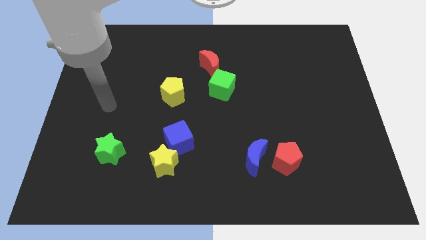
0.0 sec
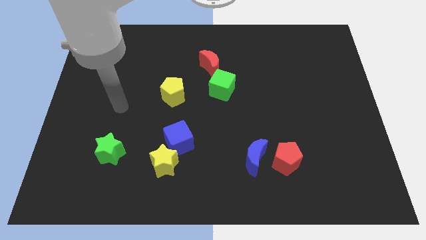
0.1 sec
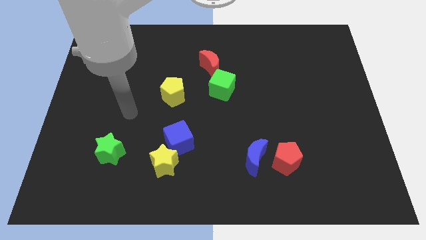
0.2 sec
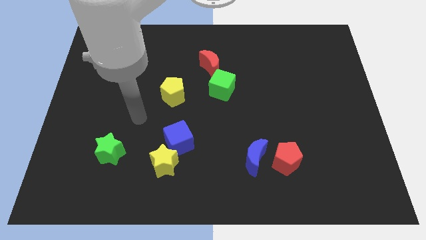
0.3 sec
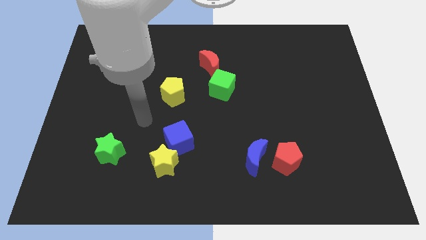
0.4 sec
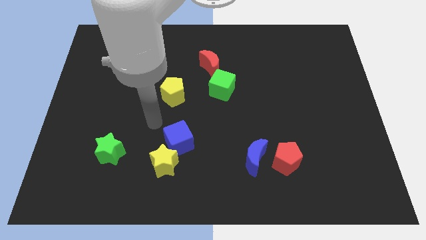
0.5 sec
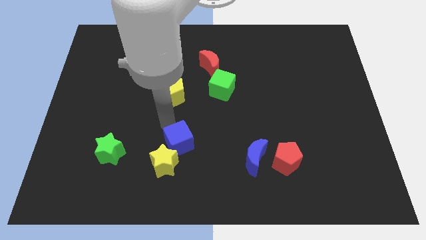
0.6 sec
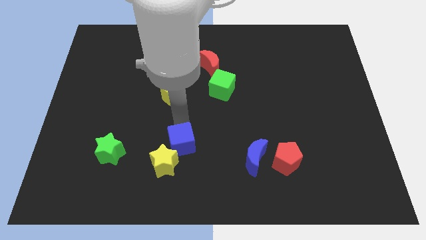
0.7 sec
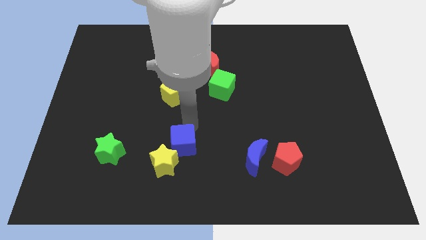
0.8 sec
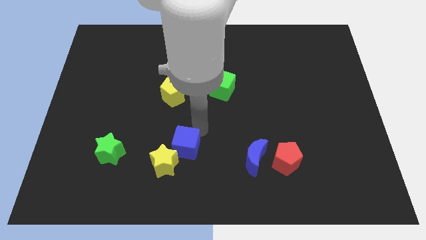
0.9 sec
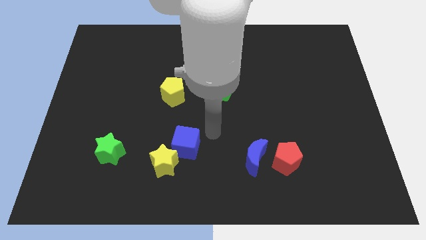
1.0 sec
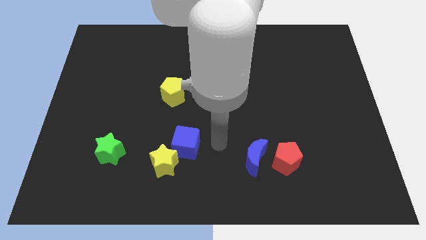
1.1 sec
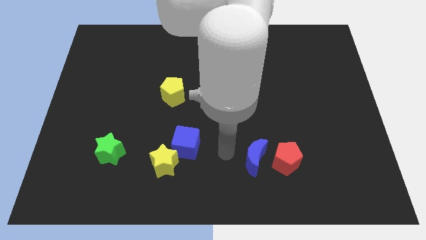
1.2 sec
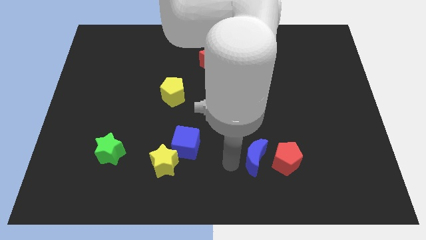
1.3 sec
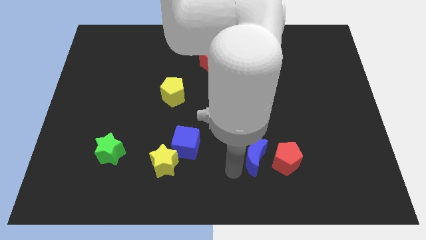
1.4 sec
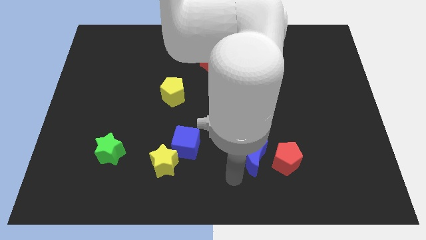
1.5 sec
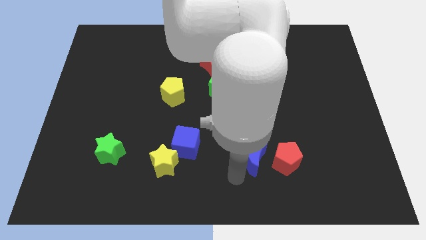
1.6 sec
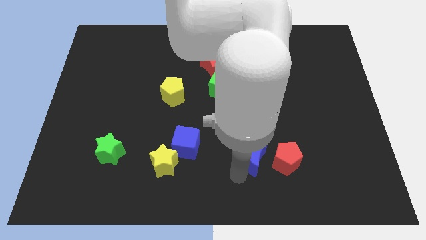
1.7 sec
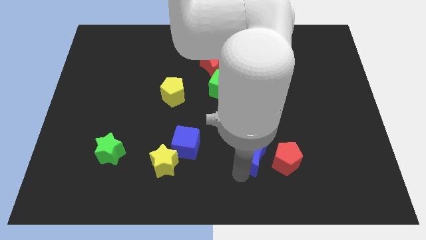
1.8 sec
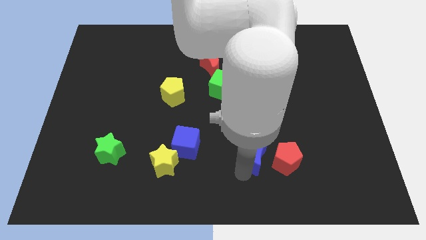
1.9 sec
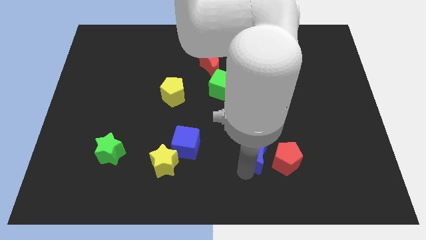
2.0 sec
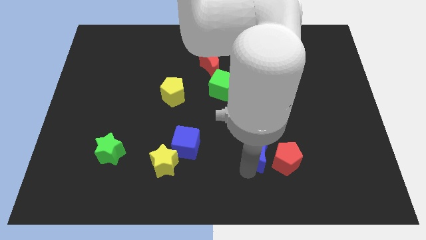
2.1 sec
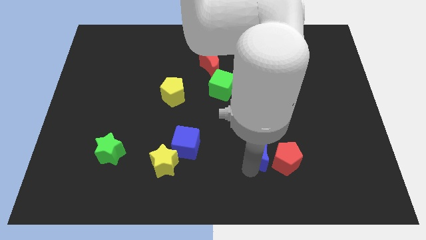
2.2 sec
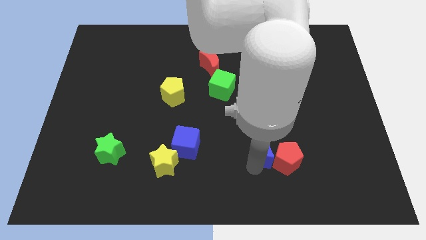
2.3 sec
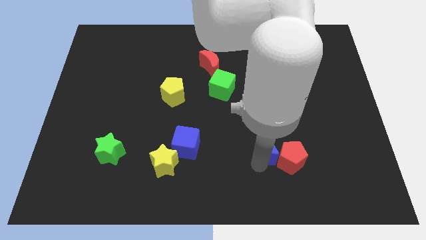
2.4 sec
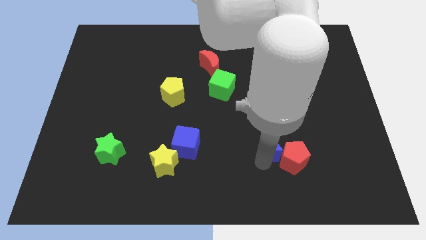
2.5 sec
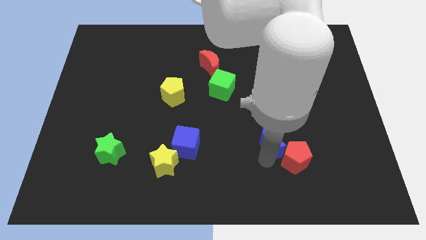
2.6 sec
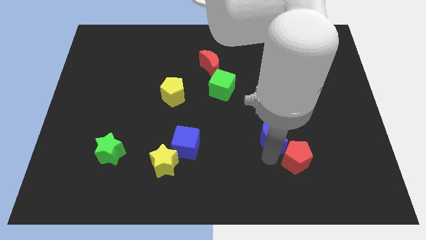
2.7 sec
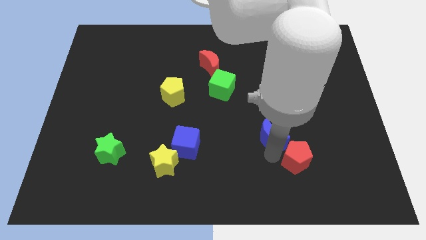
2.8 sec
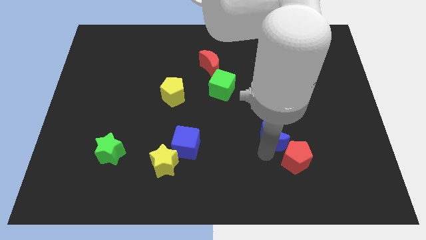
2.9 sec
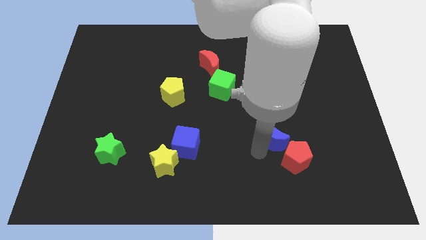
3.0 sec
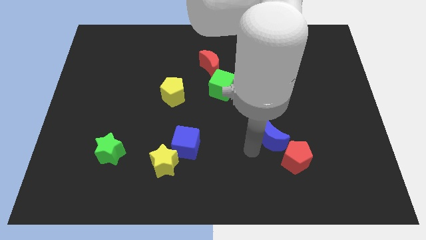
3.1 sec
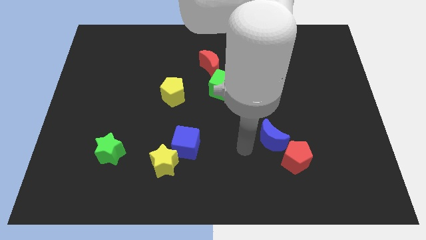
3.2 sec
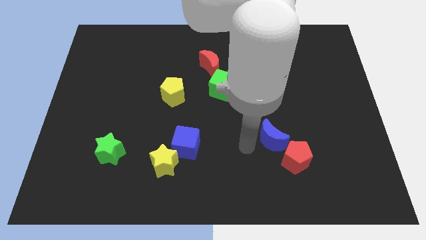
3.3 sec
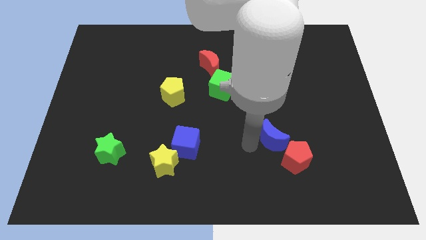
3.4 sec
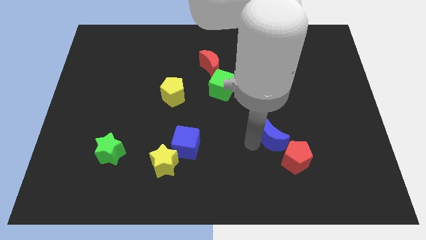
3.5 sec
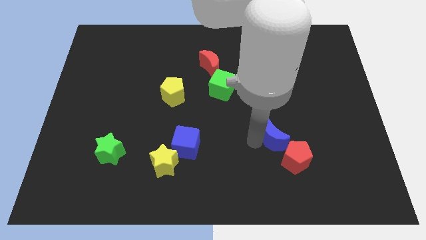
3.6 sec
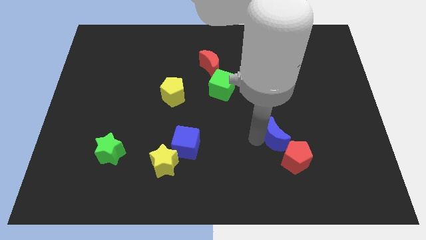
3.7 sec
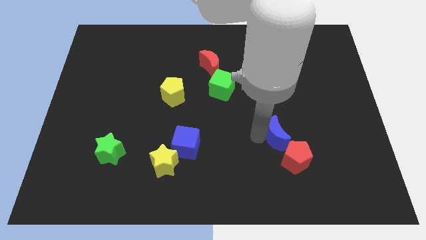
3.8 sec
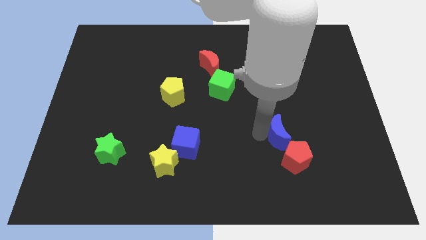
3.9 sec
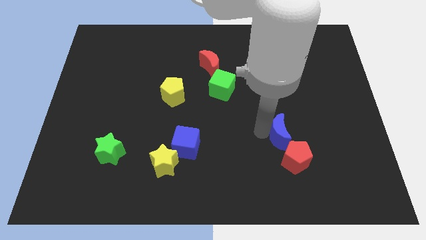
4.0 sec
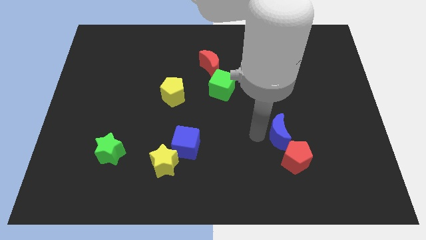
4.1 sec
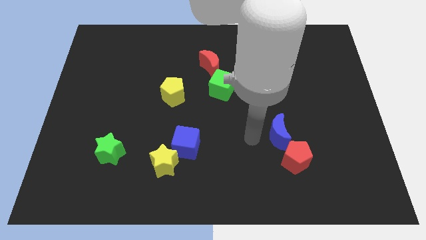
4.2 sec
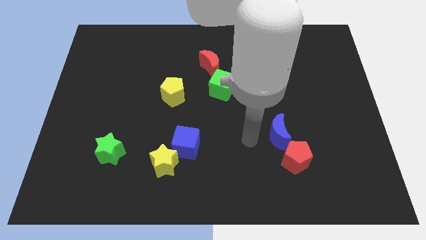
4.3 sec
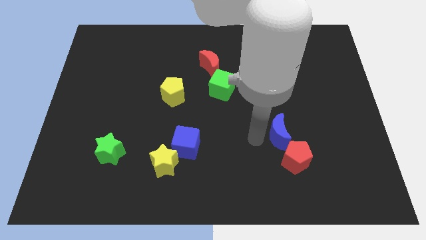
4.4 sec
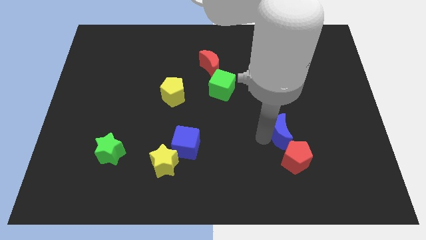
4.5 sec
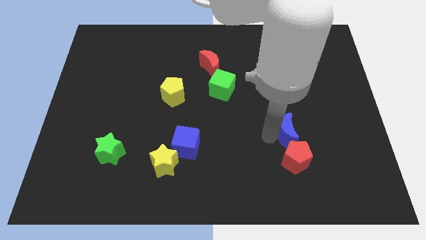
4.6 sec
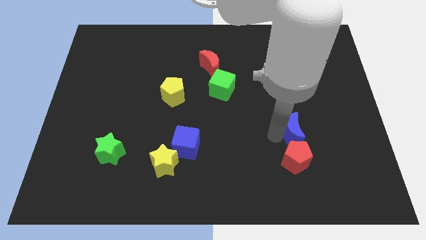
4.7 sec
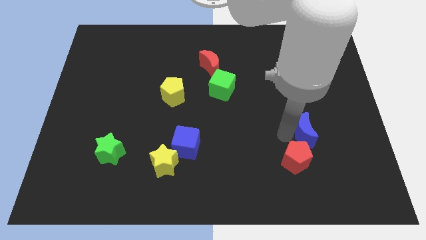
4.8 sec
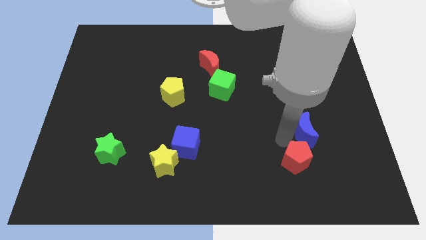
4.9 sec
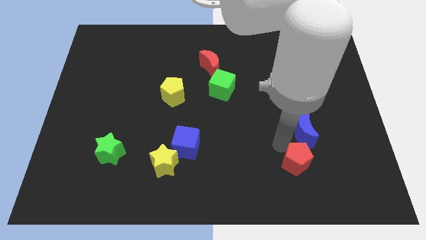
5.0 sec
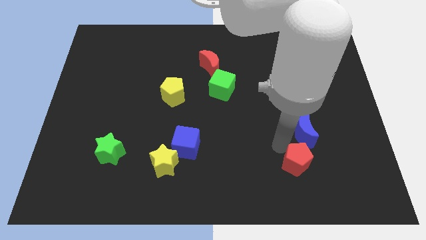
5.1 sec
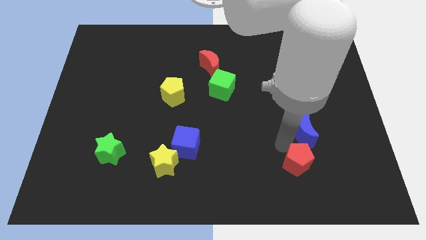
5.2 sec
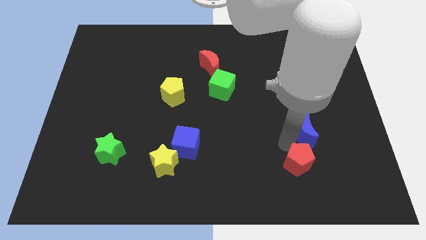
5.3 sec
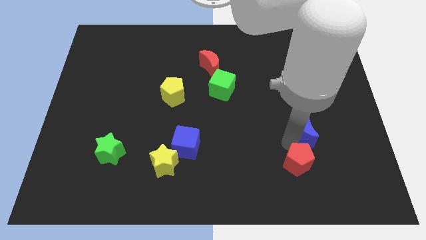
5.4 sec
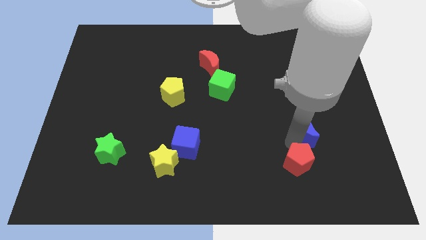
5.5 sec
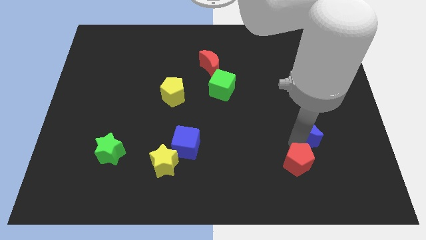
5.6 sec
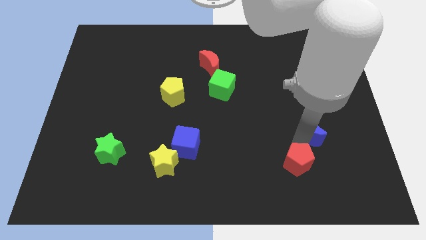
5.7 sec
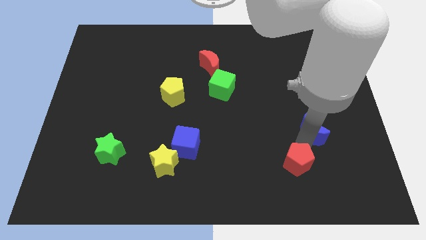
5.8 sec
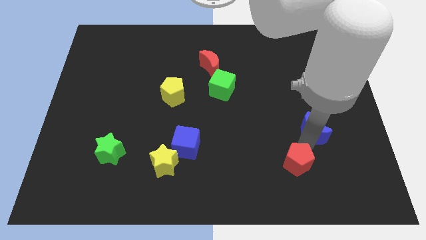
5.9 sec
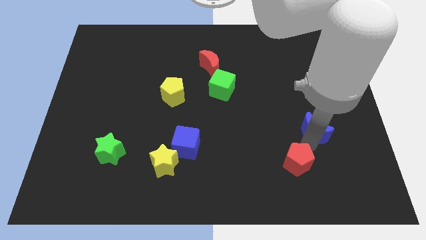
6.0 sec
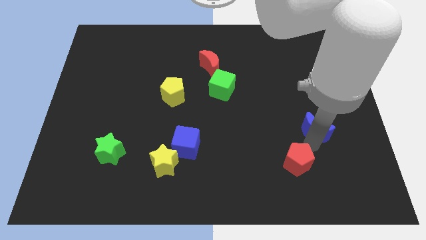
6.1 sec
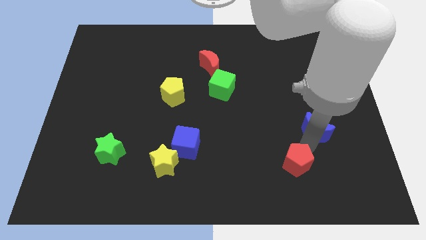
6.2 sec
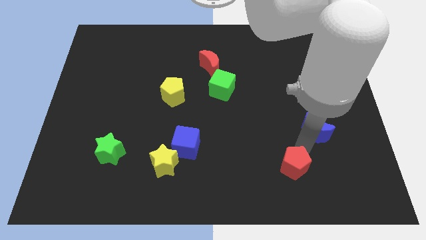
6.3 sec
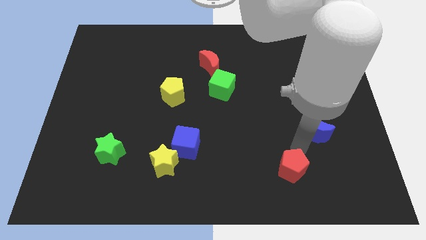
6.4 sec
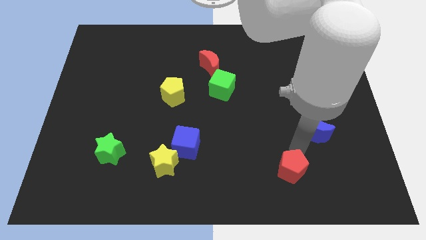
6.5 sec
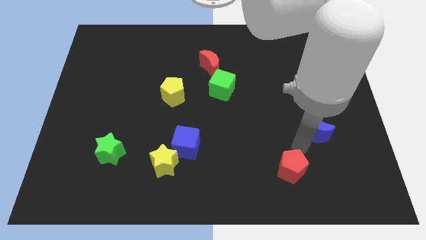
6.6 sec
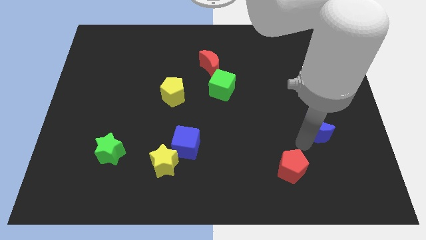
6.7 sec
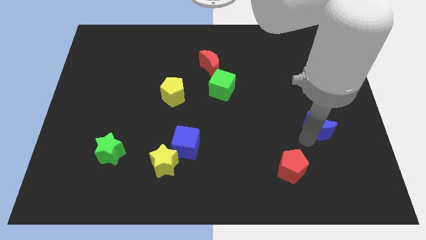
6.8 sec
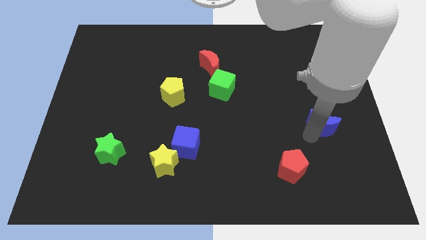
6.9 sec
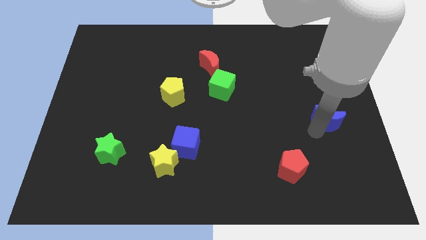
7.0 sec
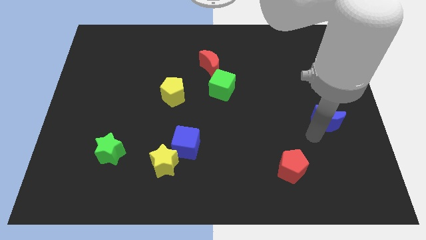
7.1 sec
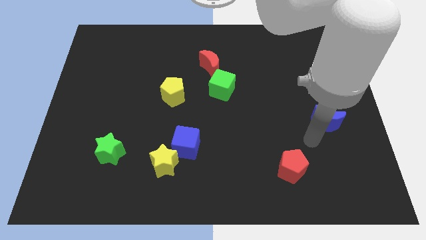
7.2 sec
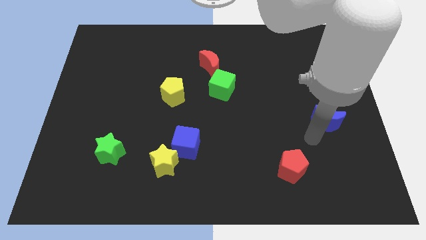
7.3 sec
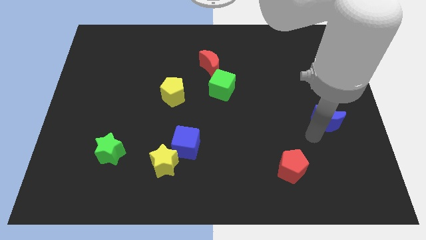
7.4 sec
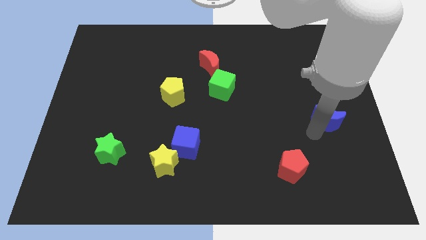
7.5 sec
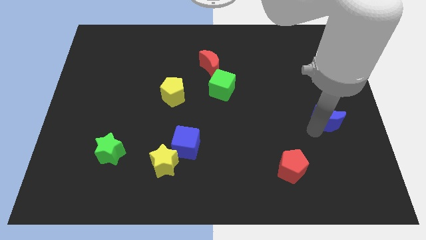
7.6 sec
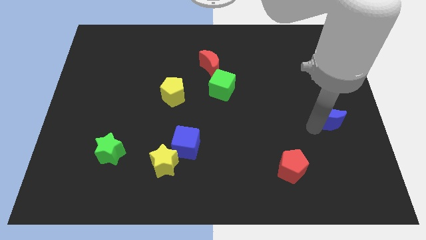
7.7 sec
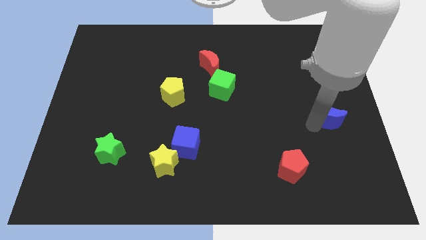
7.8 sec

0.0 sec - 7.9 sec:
slide the blue moon to the center right
